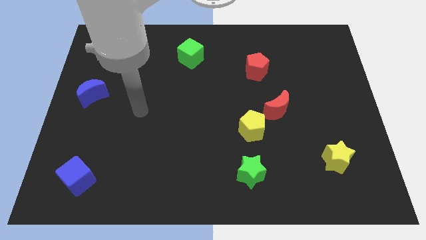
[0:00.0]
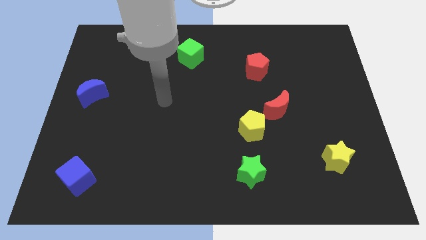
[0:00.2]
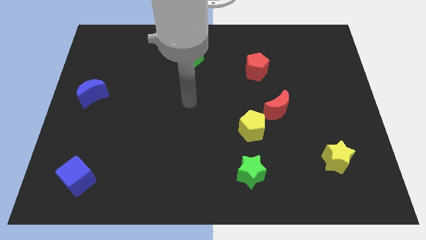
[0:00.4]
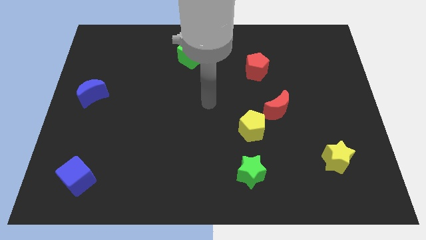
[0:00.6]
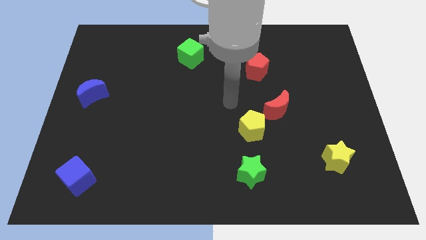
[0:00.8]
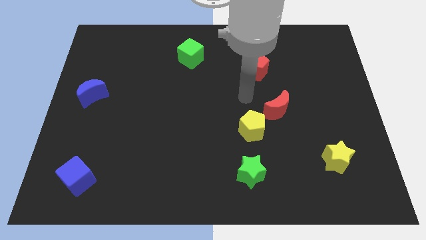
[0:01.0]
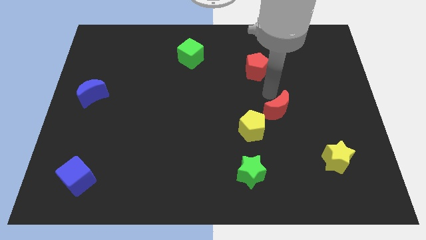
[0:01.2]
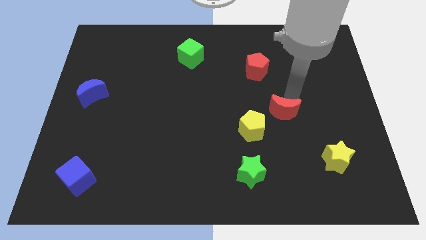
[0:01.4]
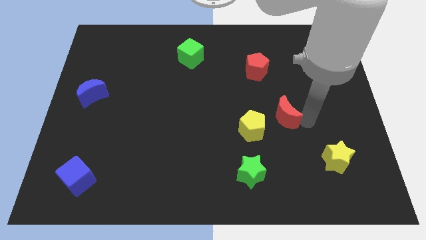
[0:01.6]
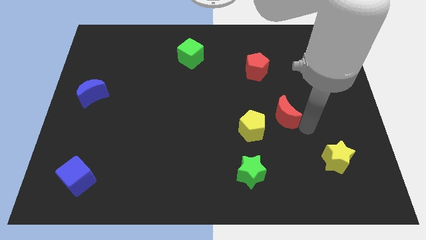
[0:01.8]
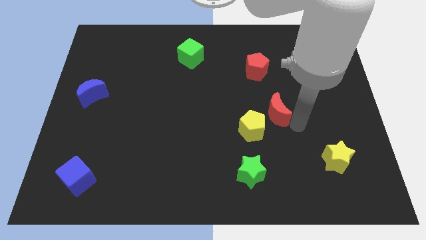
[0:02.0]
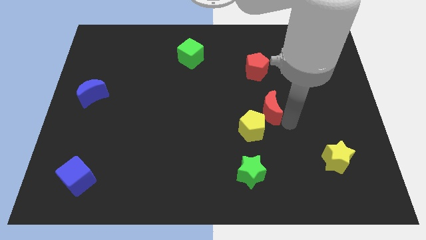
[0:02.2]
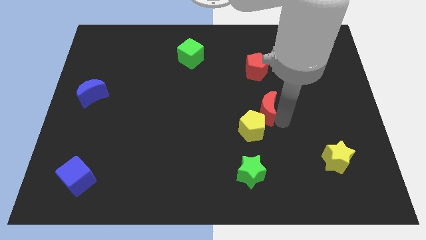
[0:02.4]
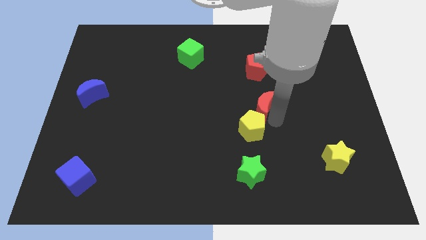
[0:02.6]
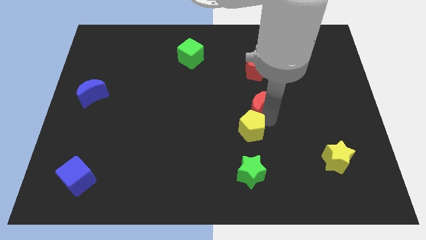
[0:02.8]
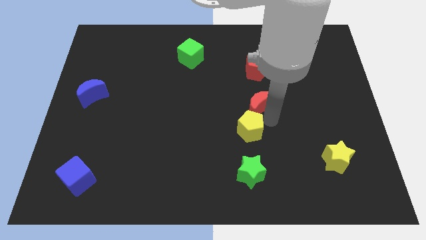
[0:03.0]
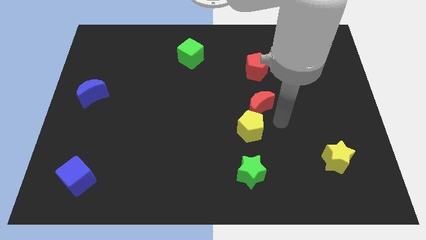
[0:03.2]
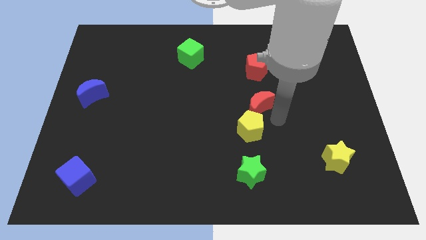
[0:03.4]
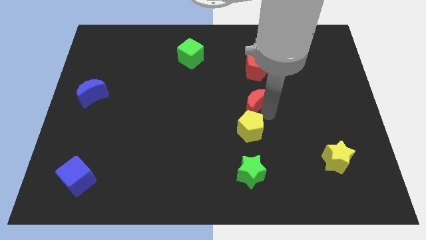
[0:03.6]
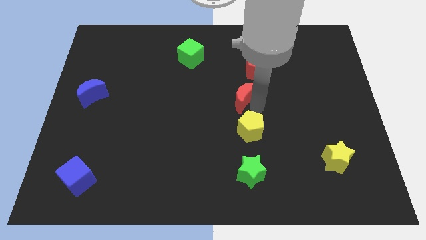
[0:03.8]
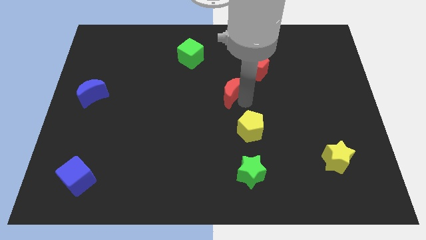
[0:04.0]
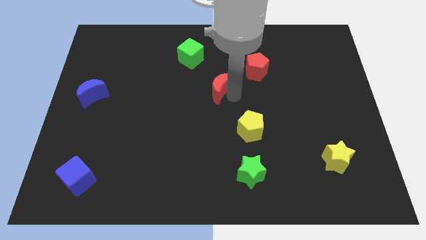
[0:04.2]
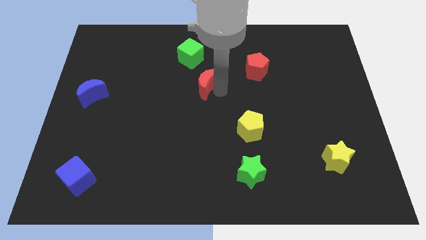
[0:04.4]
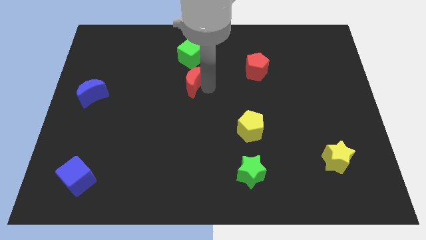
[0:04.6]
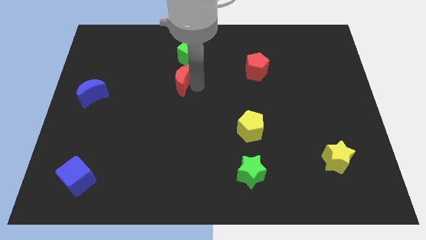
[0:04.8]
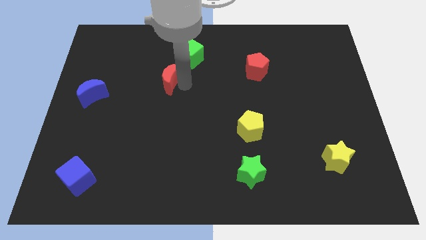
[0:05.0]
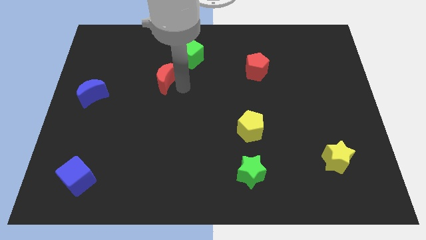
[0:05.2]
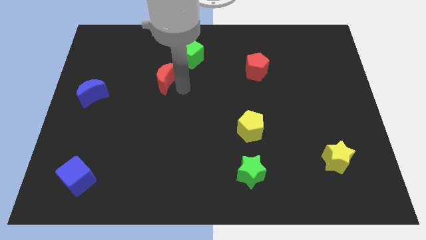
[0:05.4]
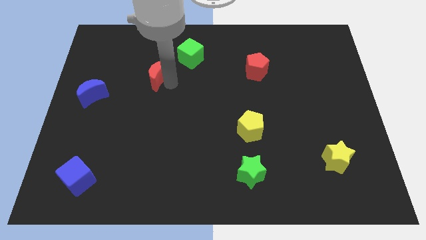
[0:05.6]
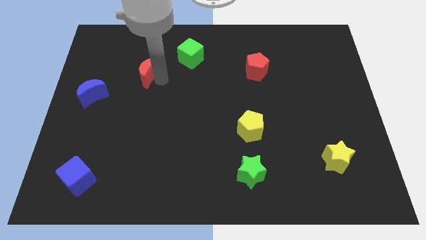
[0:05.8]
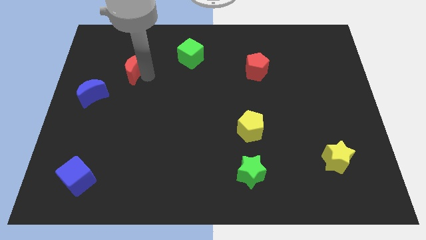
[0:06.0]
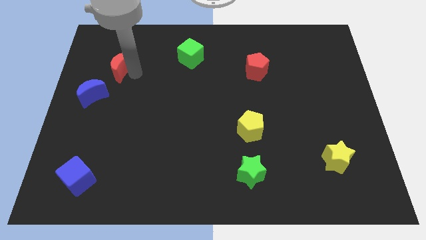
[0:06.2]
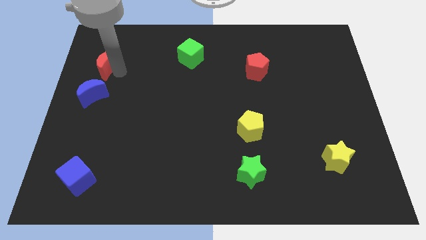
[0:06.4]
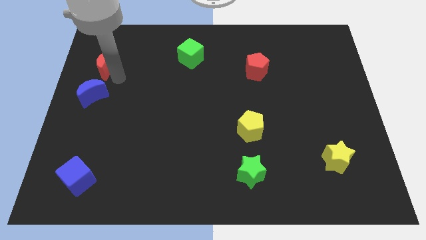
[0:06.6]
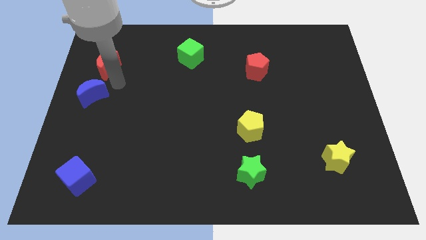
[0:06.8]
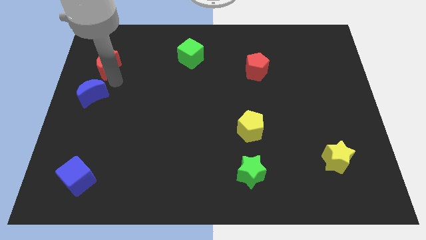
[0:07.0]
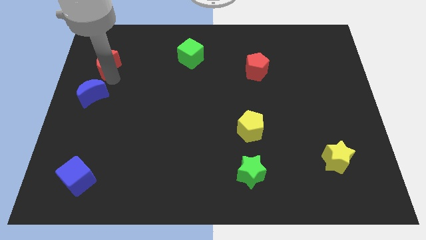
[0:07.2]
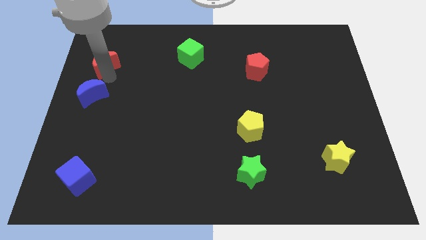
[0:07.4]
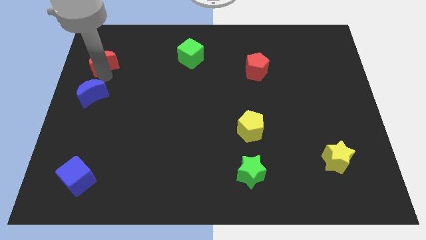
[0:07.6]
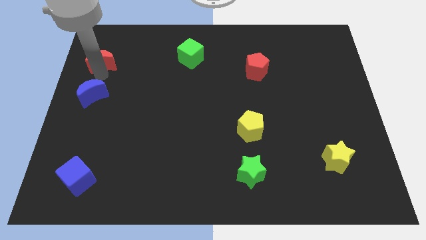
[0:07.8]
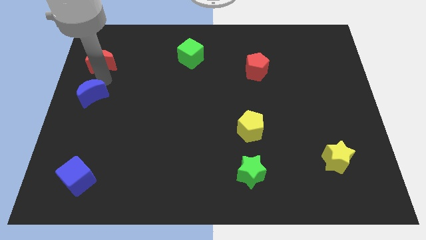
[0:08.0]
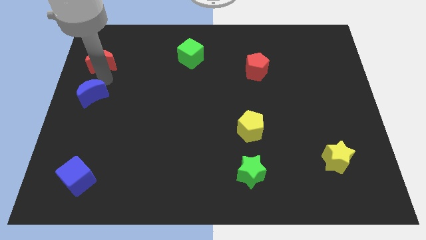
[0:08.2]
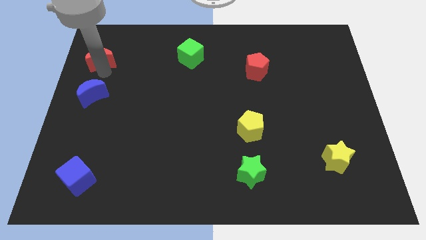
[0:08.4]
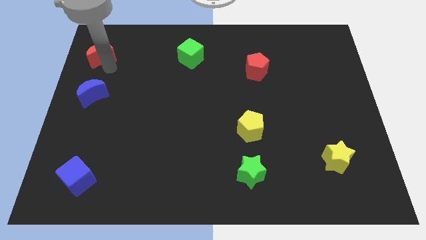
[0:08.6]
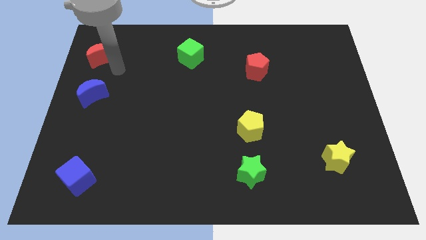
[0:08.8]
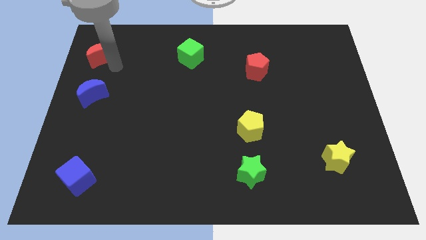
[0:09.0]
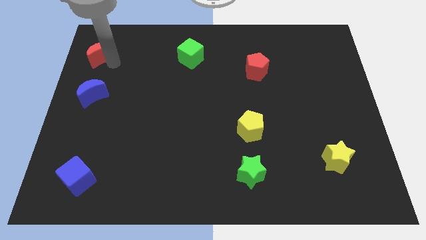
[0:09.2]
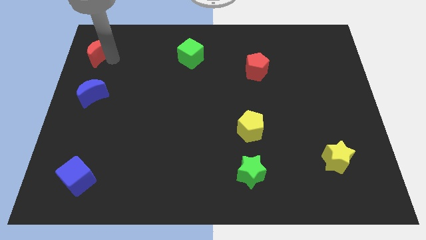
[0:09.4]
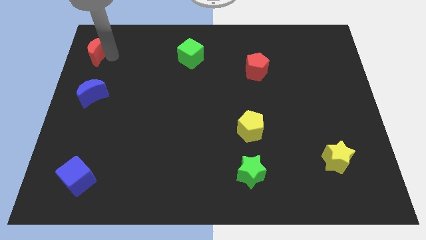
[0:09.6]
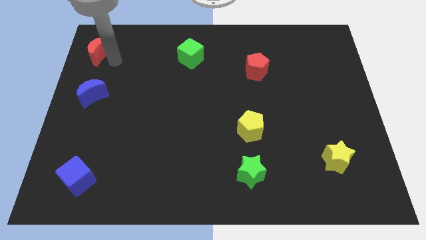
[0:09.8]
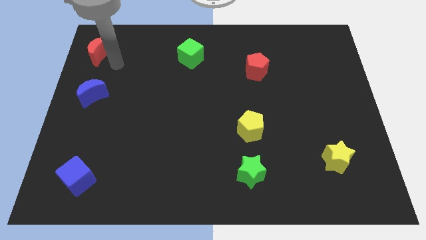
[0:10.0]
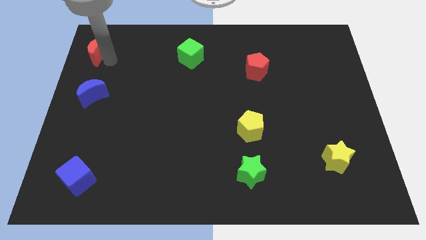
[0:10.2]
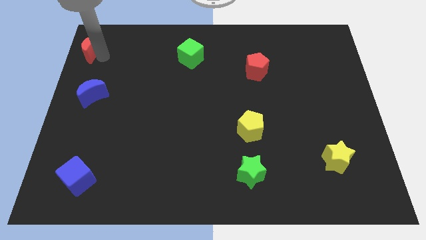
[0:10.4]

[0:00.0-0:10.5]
put the red moon to the top left

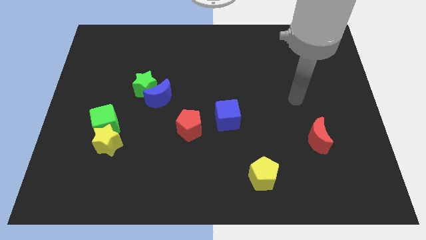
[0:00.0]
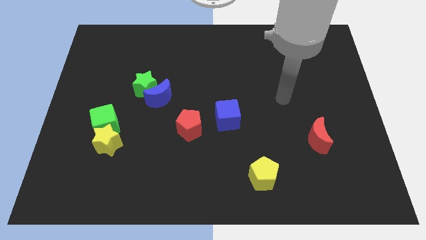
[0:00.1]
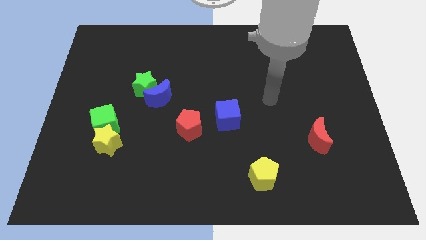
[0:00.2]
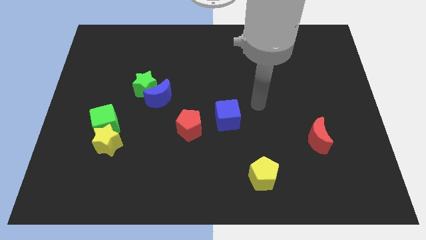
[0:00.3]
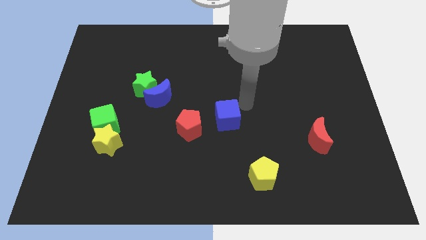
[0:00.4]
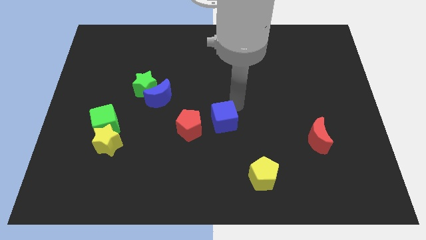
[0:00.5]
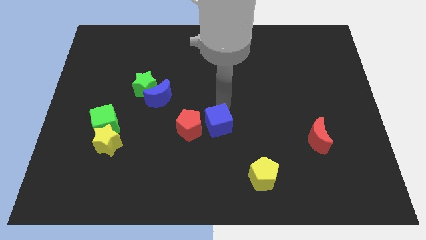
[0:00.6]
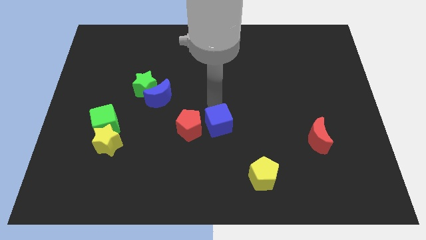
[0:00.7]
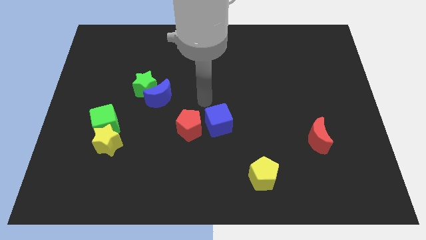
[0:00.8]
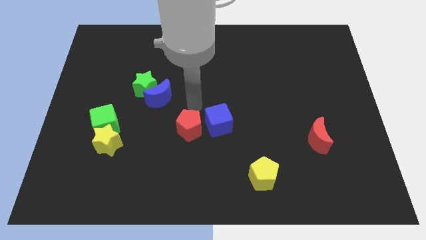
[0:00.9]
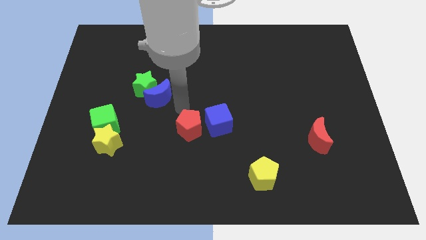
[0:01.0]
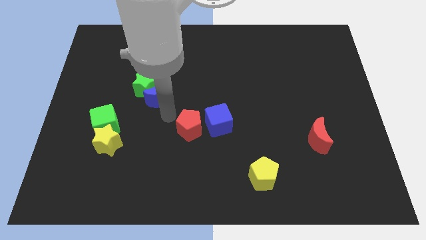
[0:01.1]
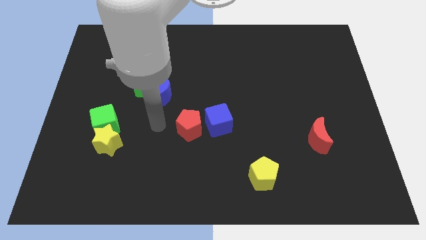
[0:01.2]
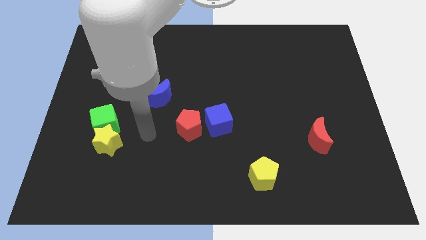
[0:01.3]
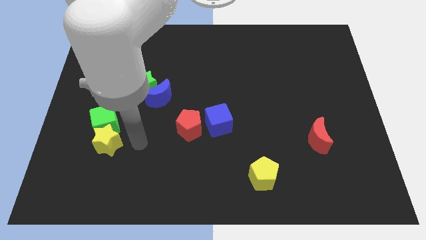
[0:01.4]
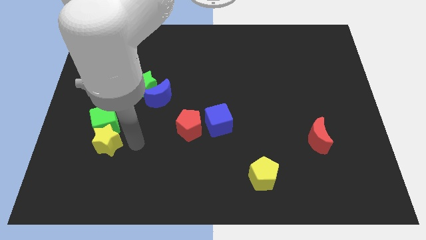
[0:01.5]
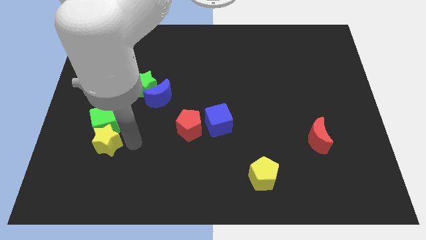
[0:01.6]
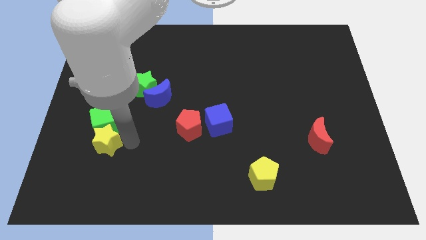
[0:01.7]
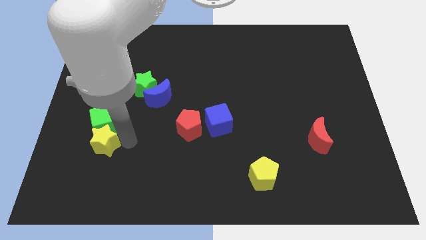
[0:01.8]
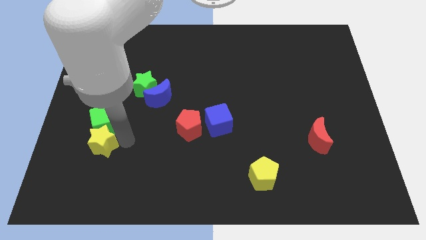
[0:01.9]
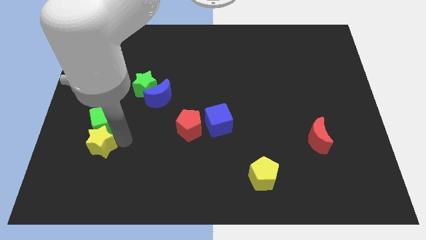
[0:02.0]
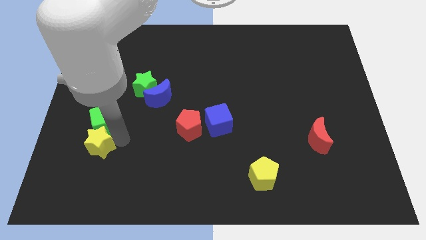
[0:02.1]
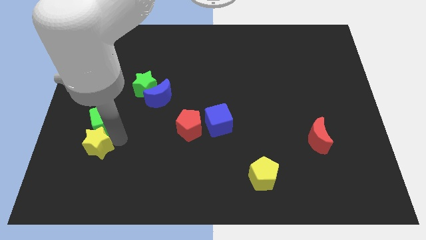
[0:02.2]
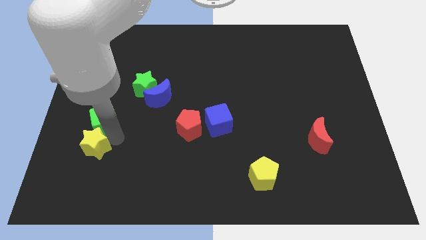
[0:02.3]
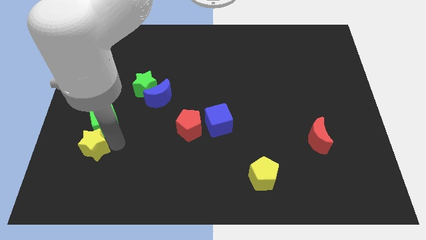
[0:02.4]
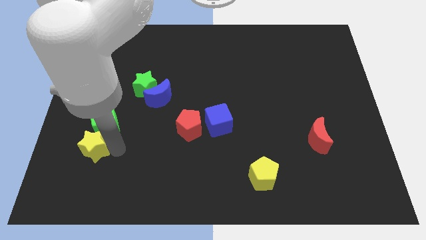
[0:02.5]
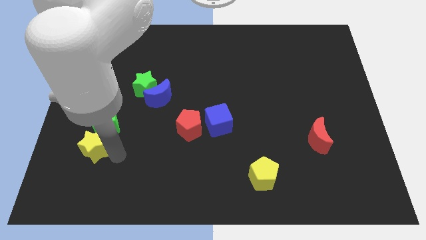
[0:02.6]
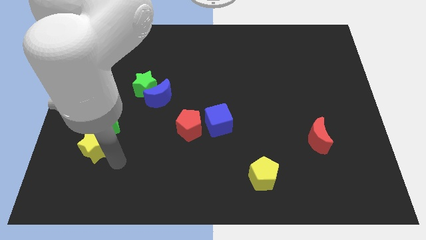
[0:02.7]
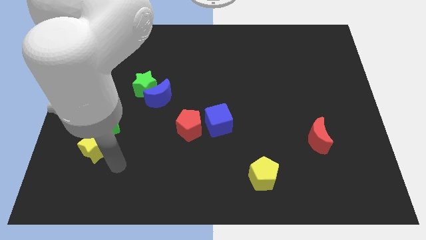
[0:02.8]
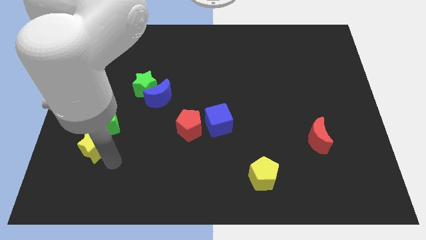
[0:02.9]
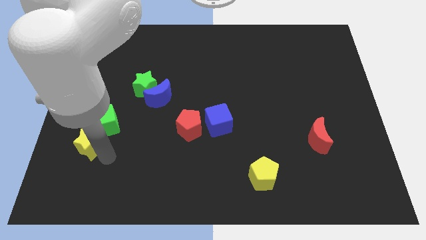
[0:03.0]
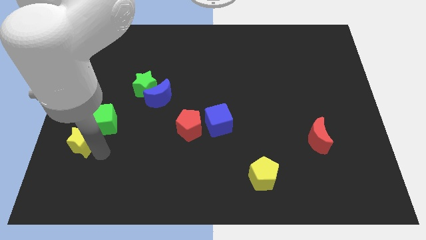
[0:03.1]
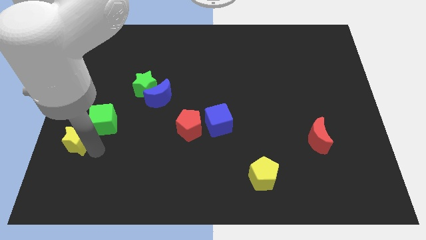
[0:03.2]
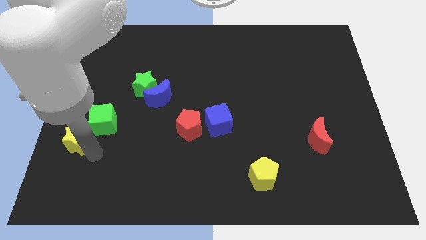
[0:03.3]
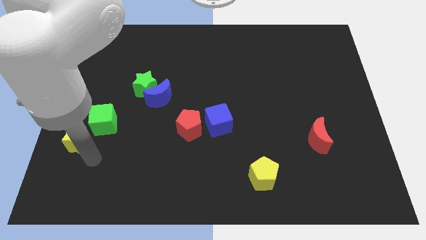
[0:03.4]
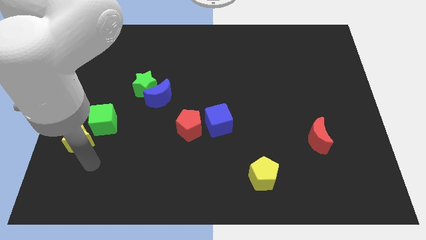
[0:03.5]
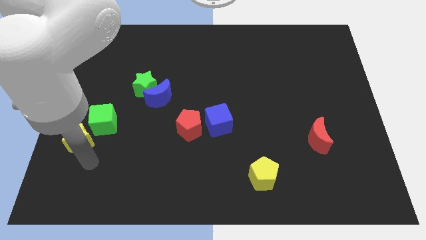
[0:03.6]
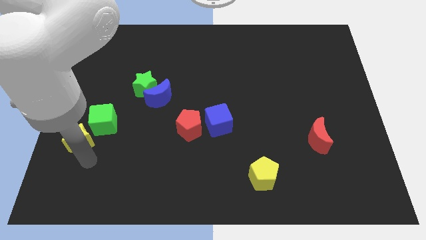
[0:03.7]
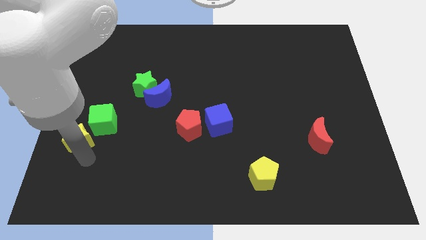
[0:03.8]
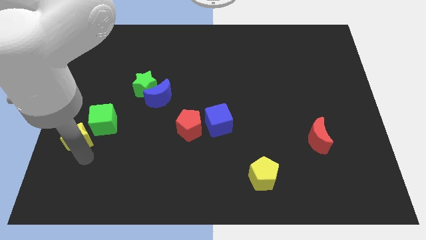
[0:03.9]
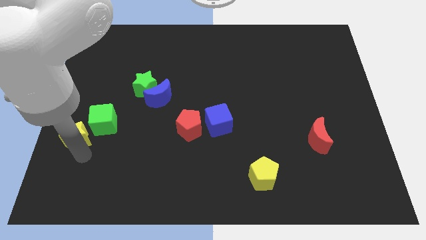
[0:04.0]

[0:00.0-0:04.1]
put the yellow star to the center left
